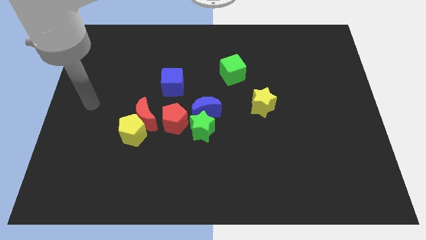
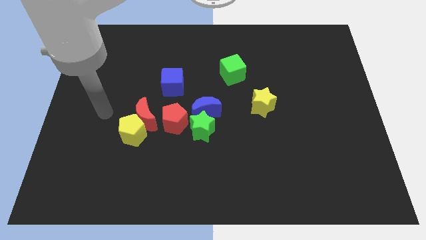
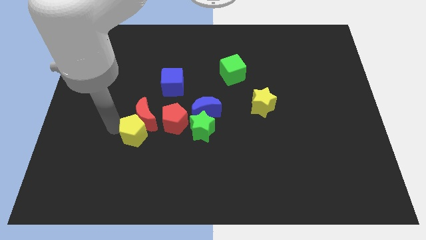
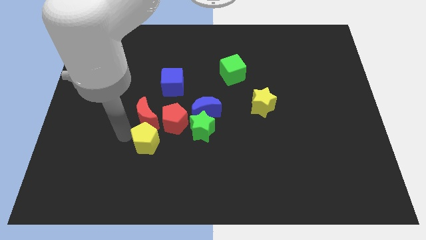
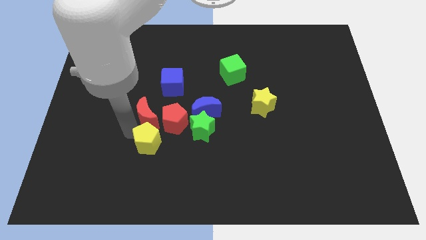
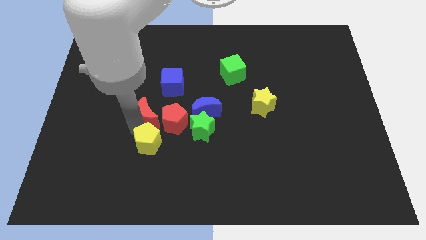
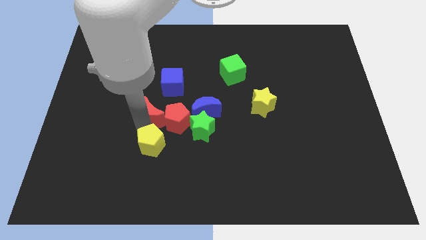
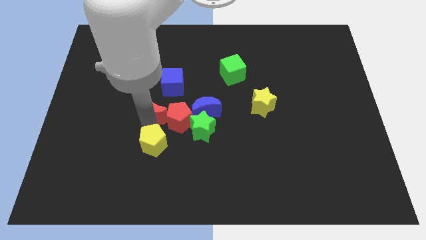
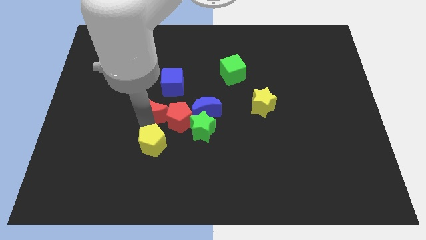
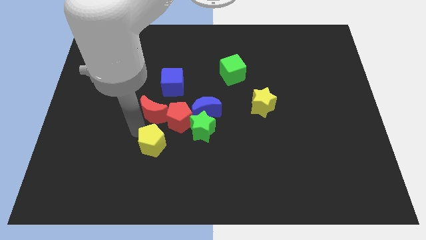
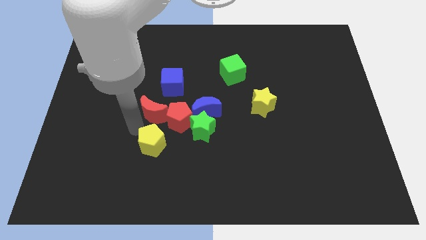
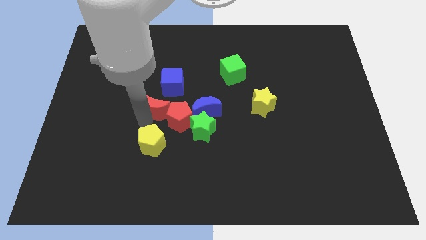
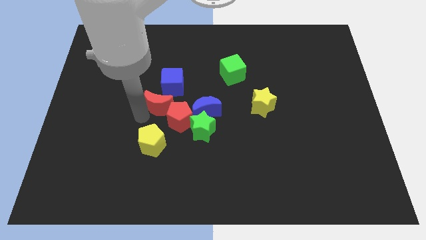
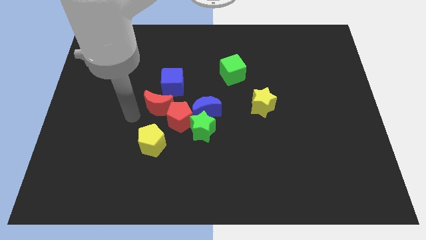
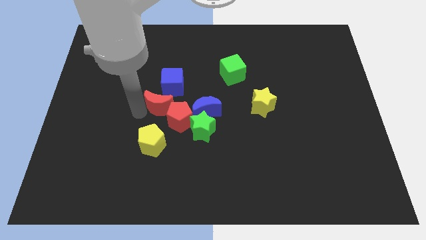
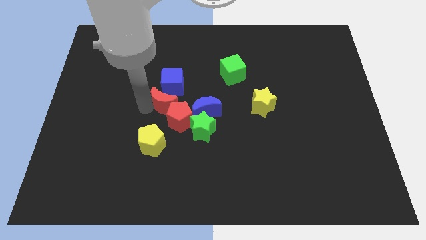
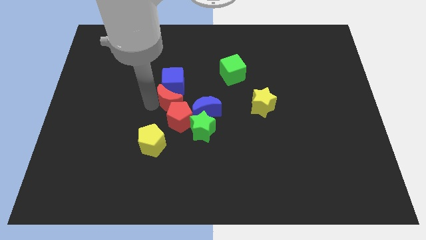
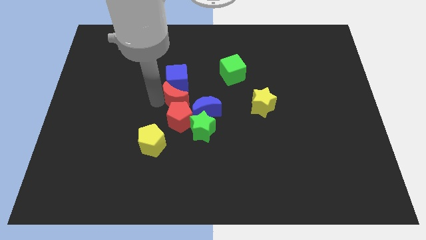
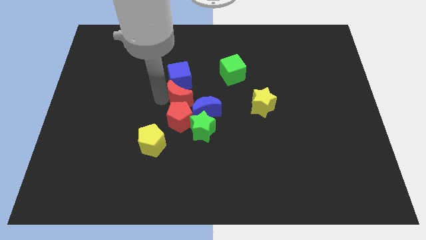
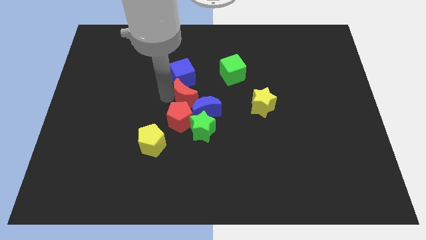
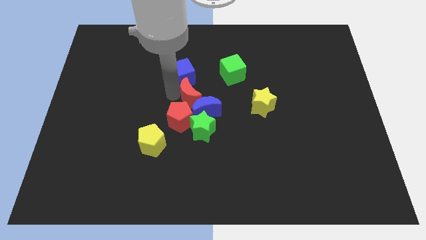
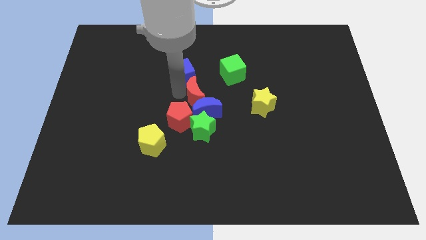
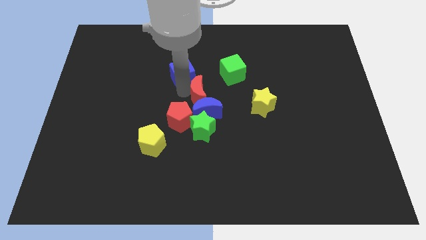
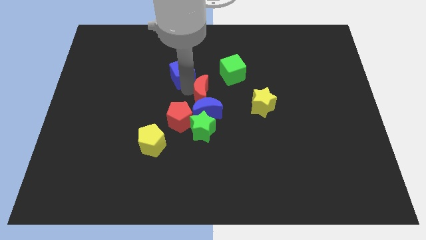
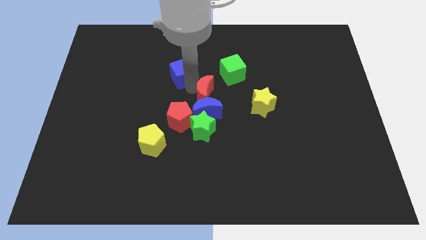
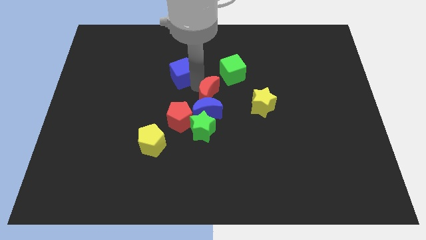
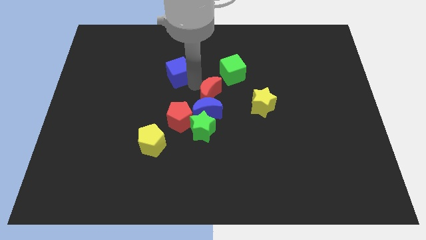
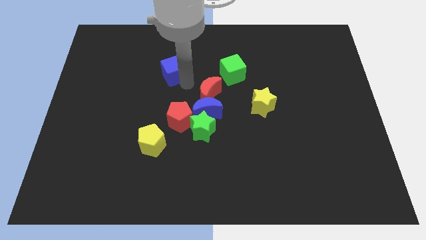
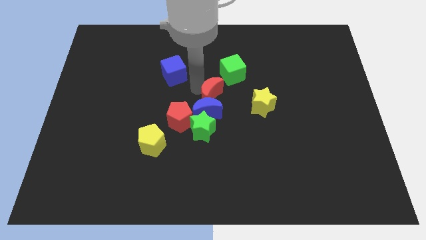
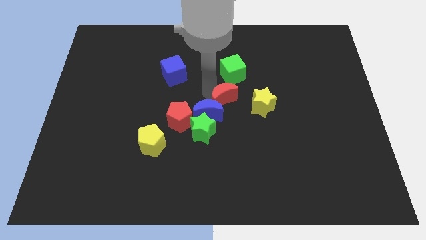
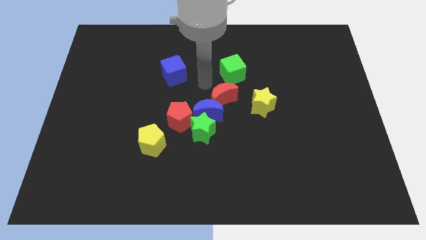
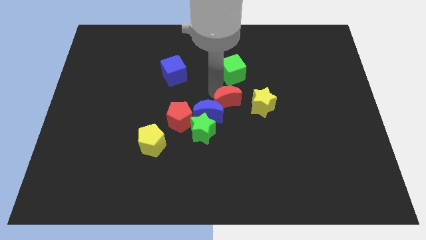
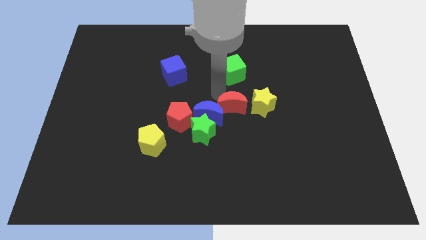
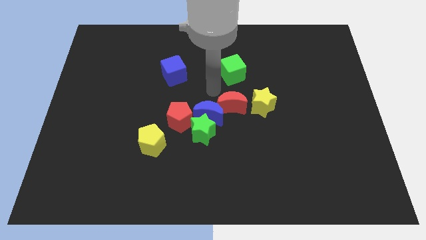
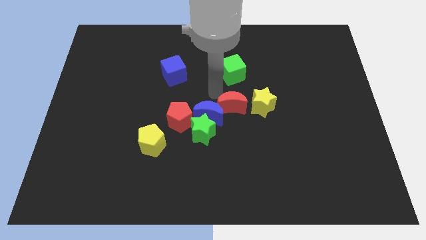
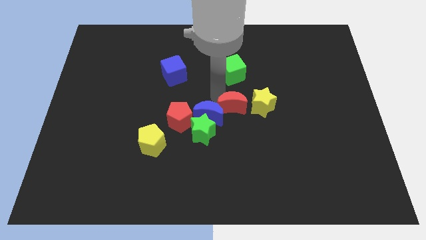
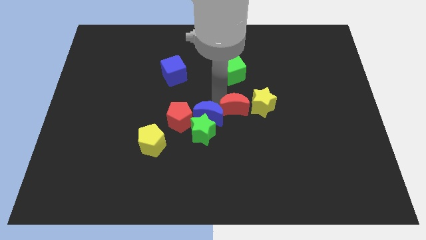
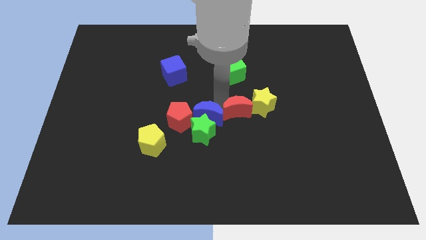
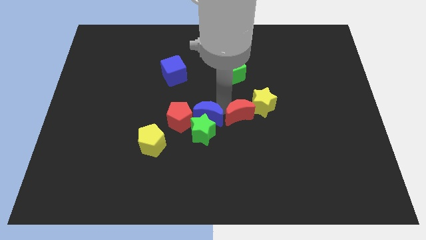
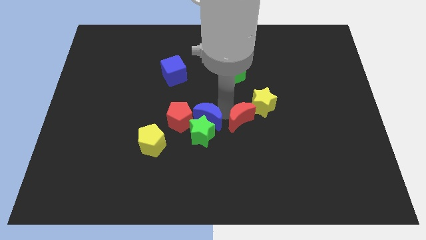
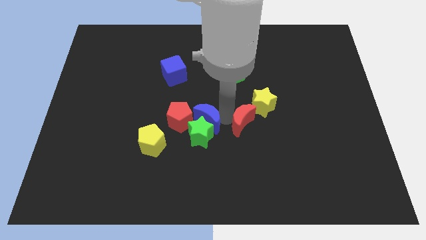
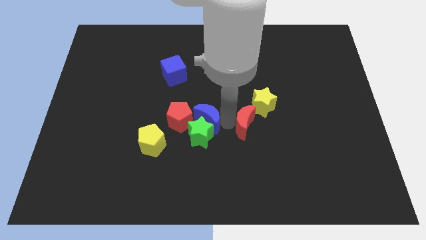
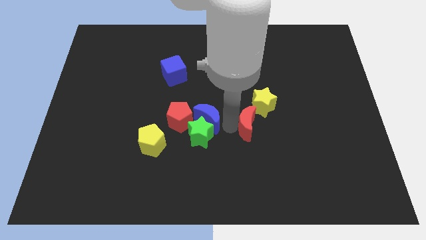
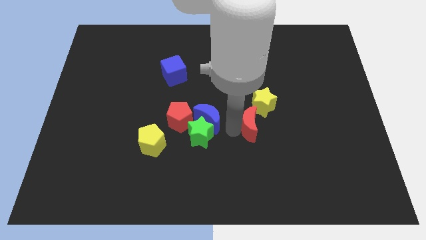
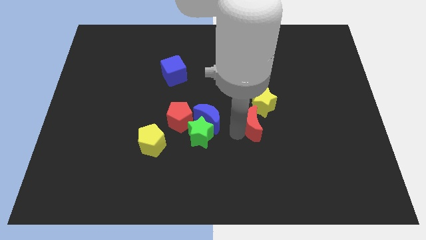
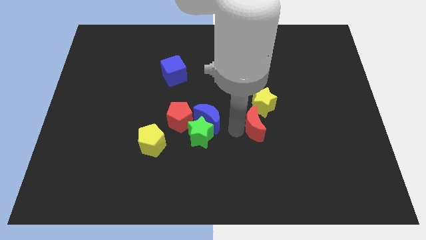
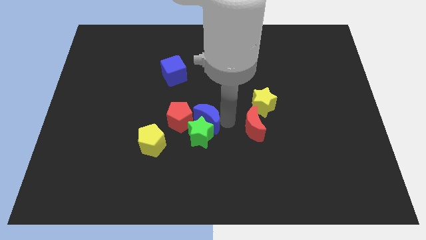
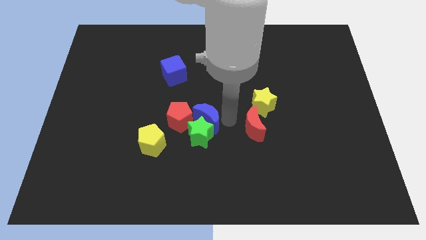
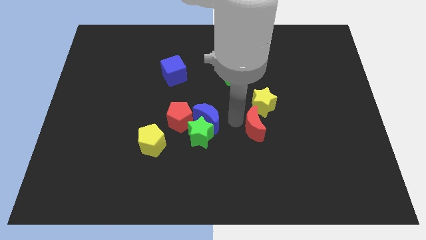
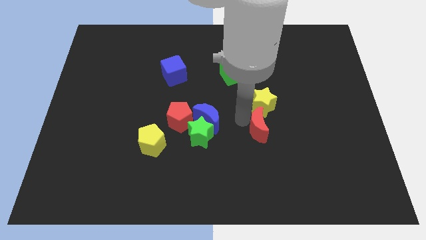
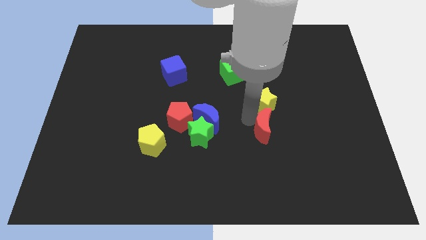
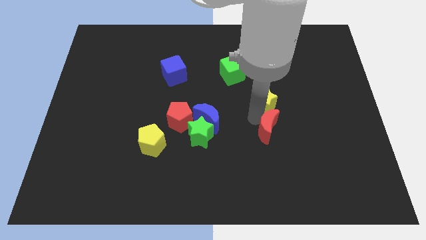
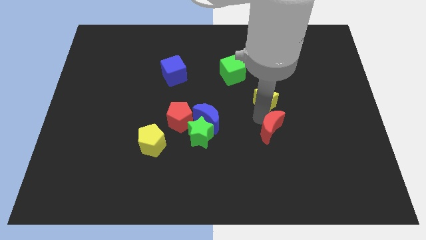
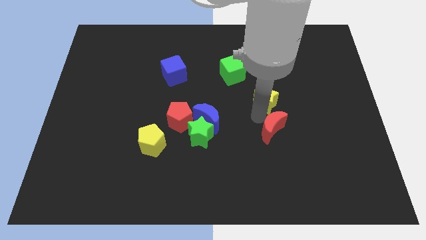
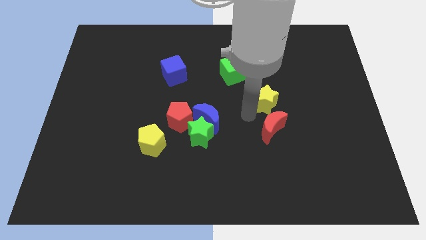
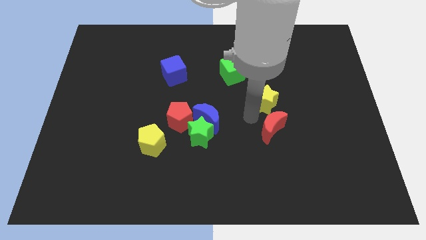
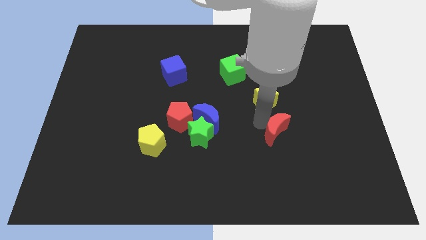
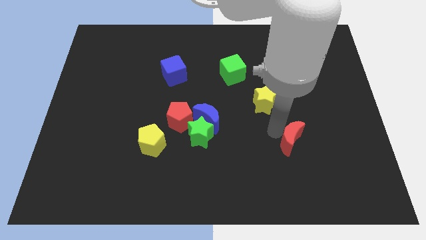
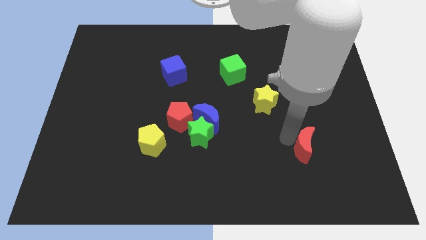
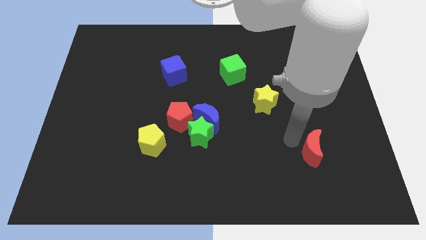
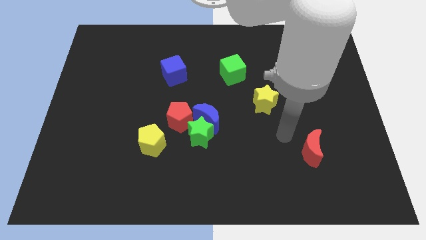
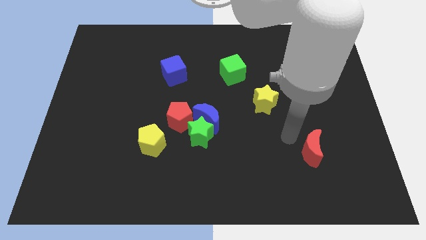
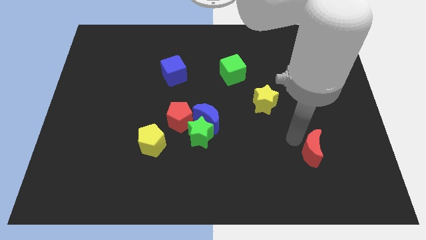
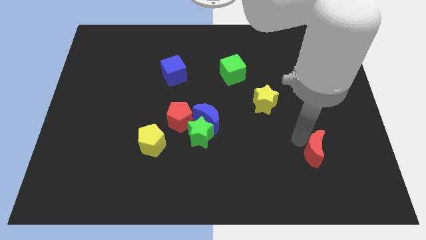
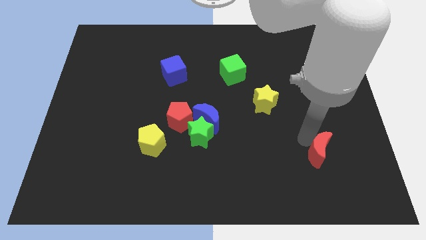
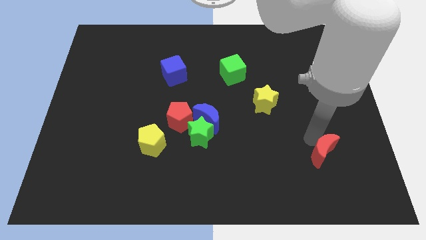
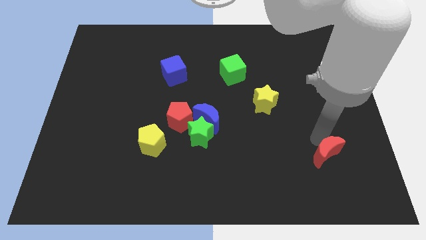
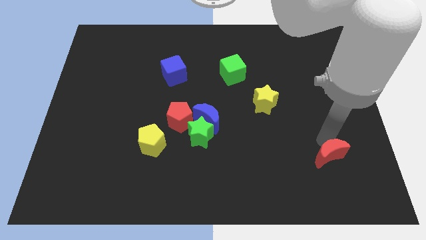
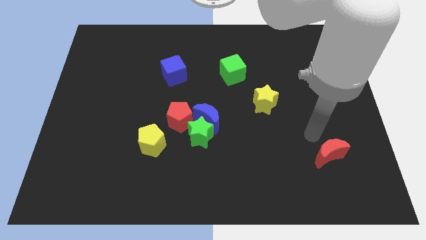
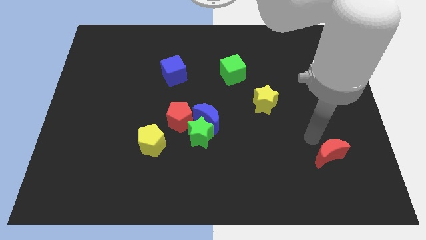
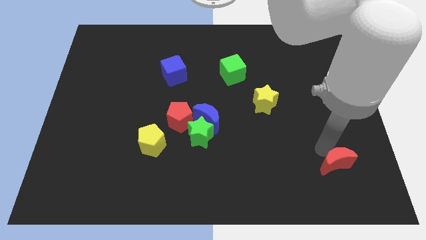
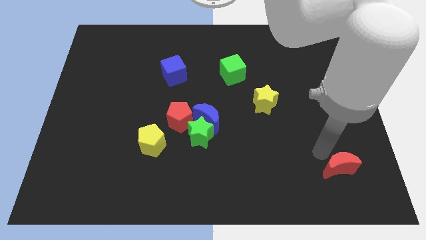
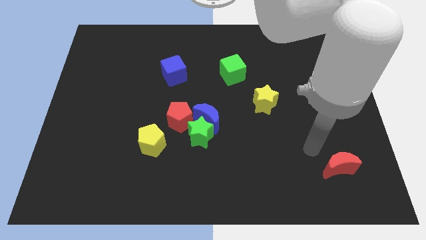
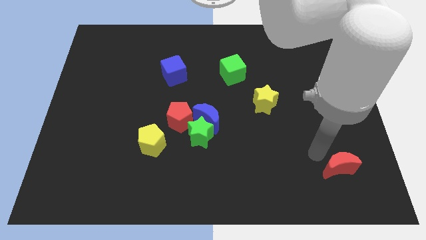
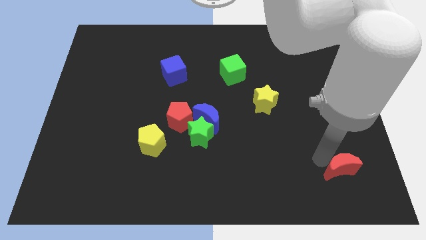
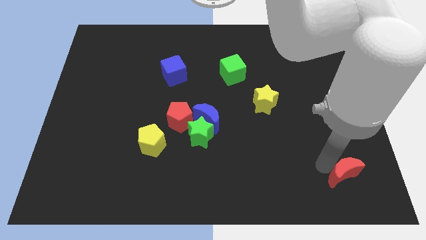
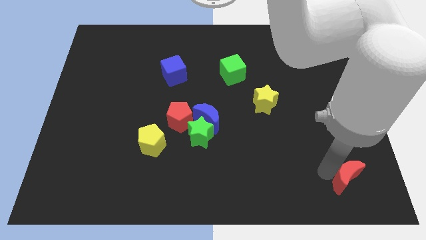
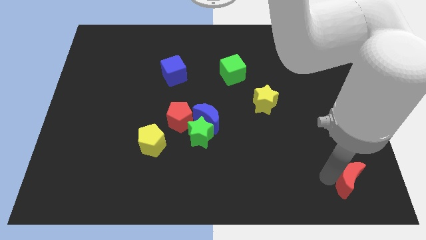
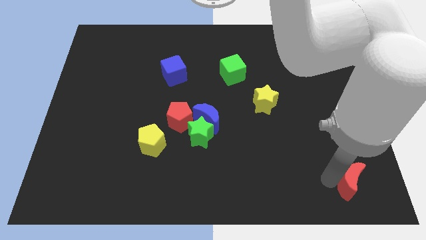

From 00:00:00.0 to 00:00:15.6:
slide the red moon to the bottom right corner
